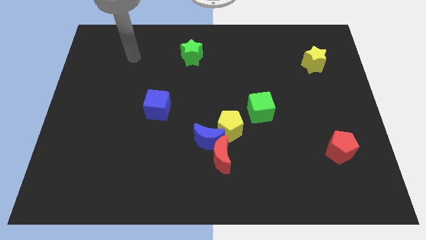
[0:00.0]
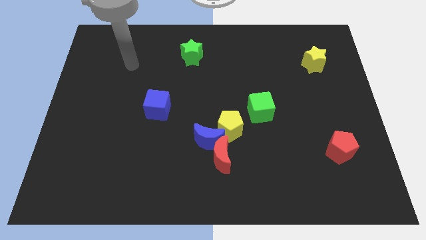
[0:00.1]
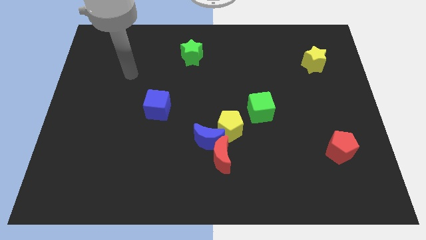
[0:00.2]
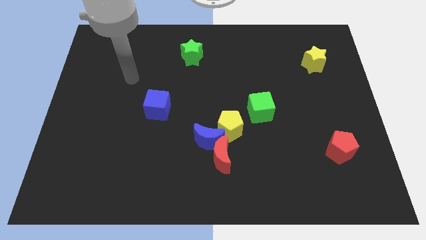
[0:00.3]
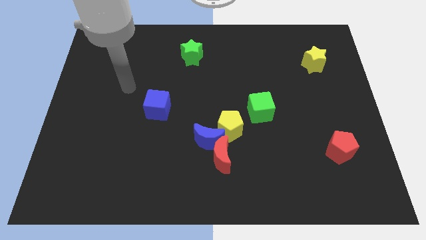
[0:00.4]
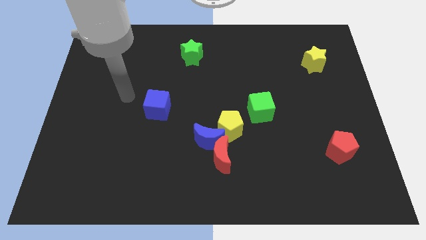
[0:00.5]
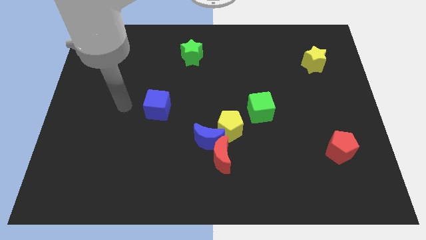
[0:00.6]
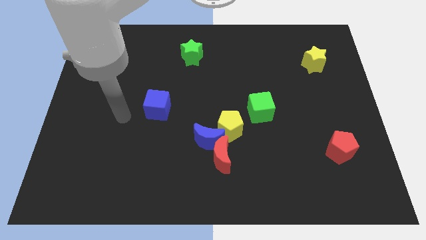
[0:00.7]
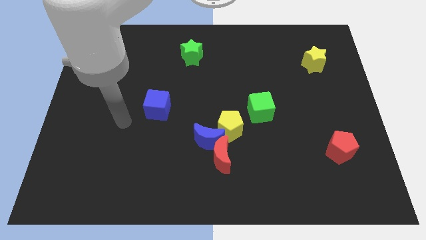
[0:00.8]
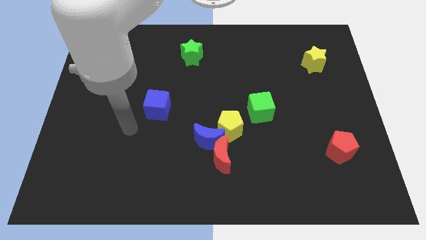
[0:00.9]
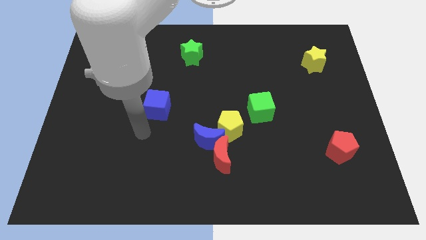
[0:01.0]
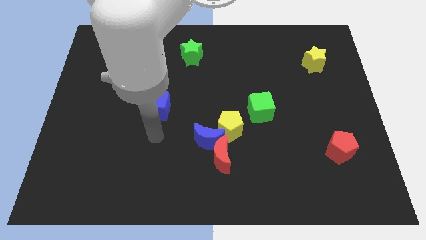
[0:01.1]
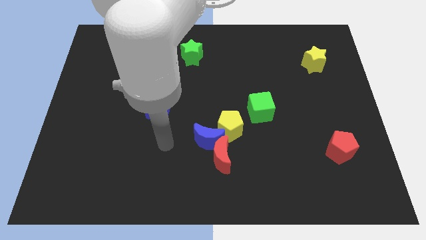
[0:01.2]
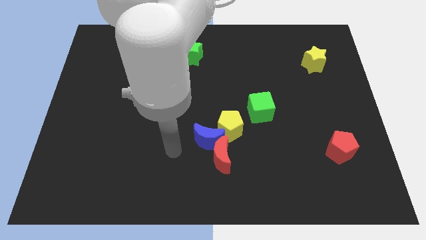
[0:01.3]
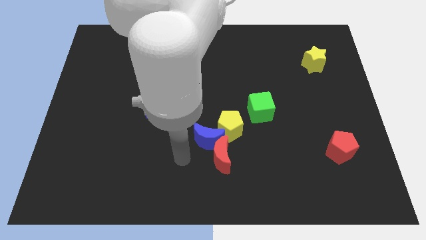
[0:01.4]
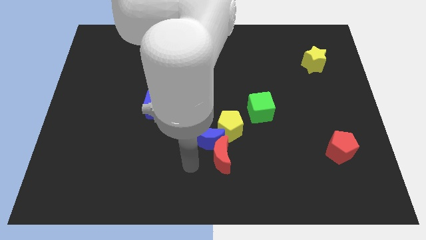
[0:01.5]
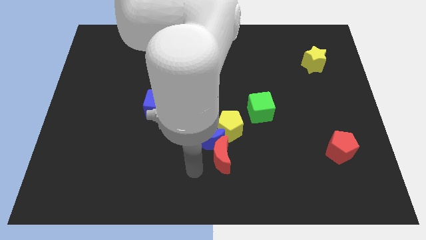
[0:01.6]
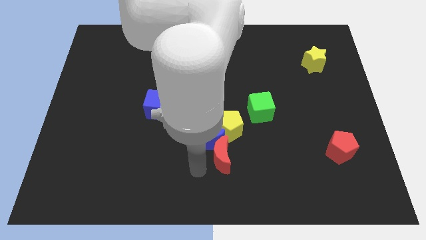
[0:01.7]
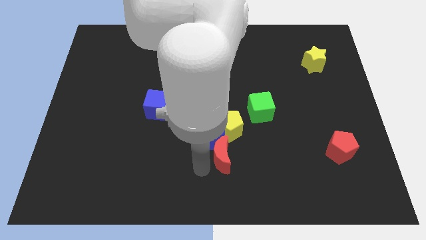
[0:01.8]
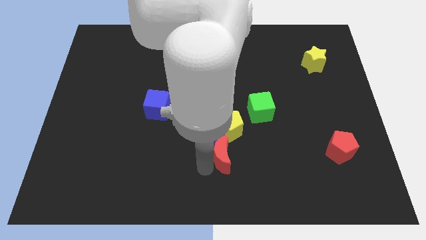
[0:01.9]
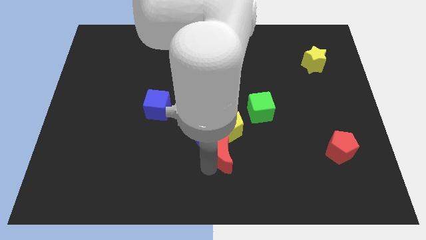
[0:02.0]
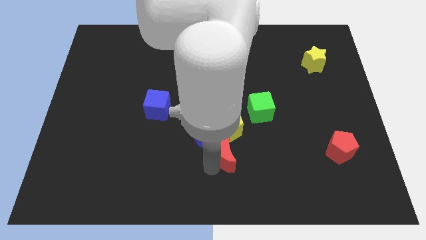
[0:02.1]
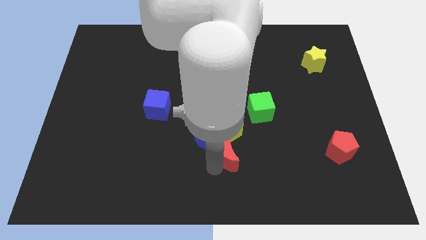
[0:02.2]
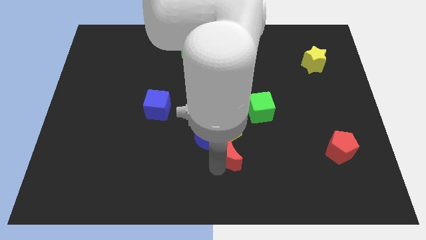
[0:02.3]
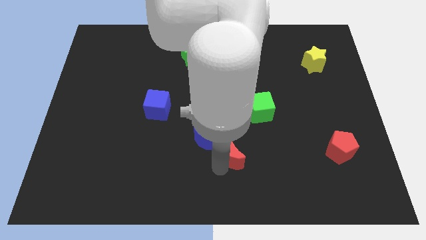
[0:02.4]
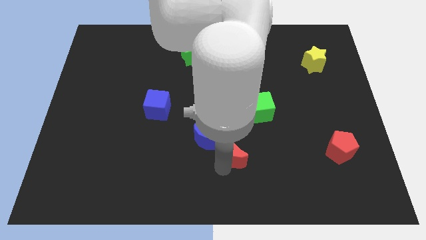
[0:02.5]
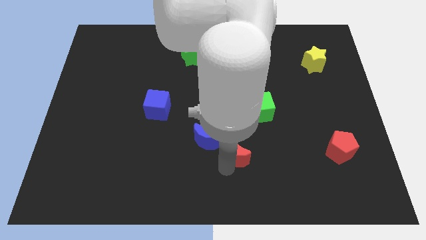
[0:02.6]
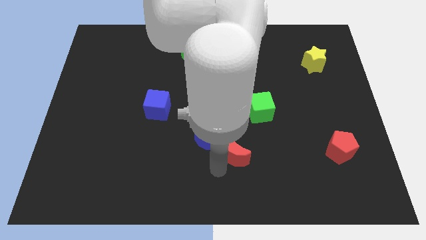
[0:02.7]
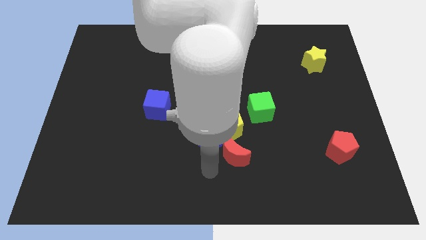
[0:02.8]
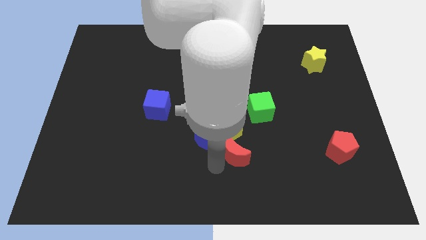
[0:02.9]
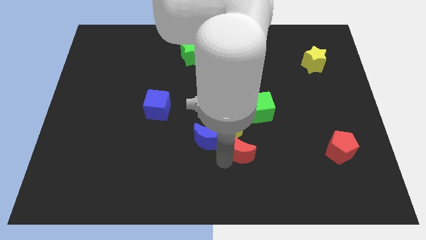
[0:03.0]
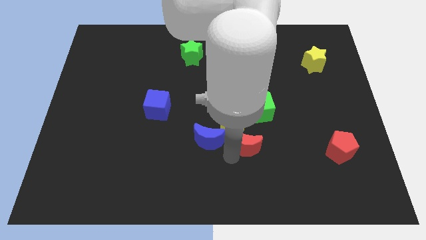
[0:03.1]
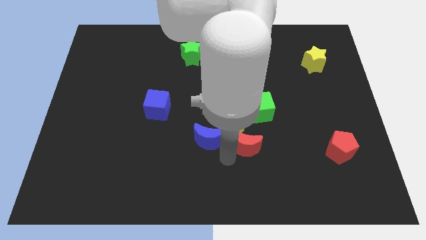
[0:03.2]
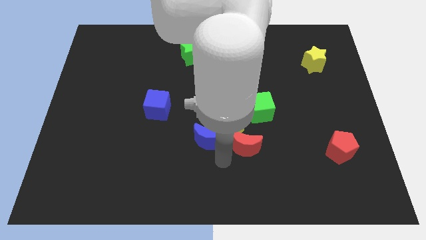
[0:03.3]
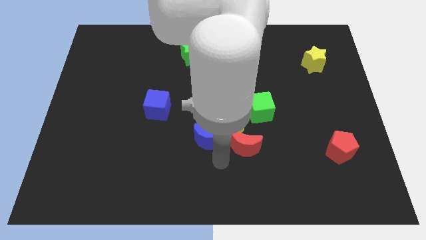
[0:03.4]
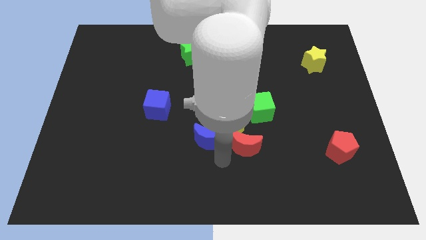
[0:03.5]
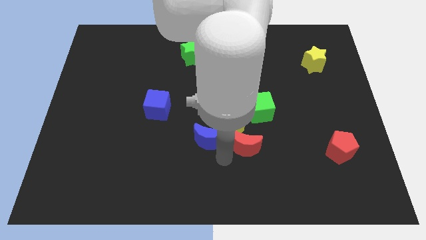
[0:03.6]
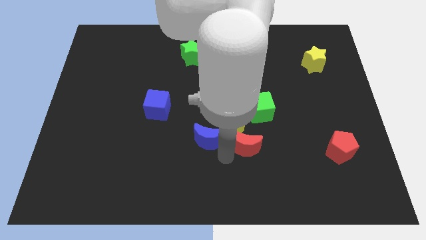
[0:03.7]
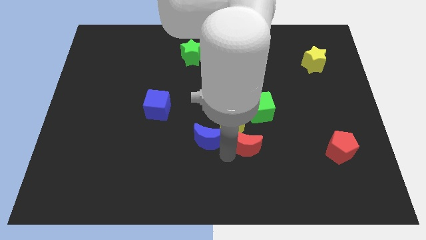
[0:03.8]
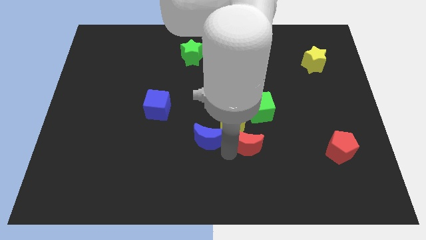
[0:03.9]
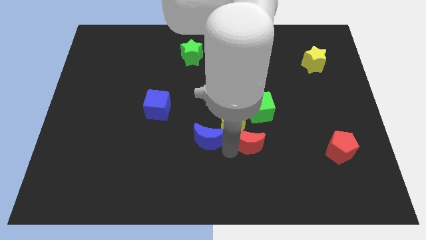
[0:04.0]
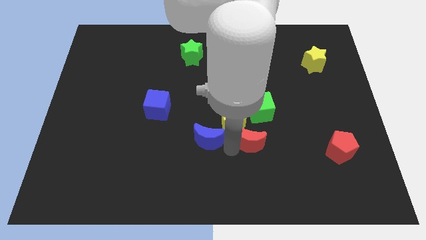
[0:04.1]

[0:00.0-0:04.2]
slightly move the red moon upwards and right diagonally

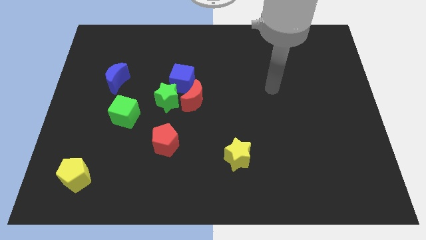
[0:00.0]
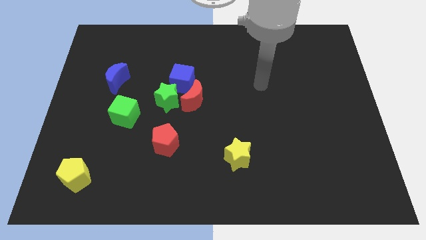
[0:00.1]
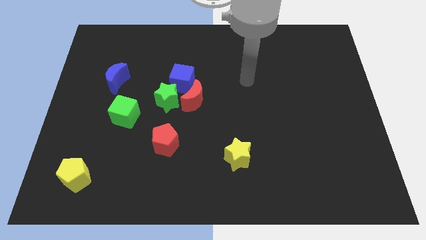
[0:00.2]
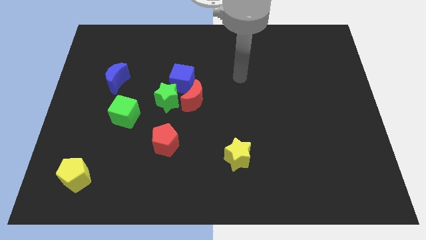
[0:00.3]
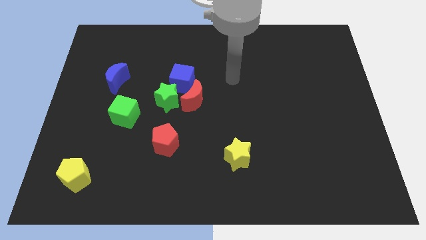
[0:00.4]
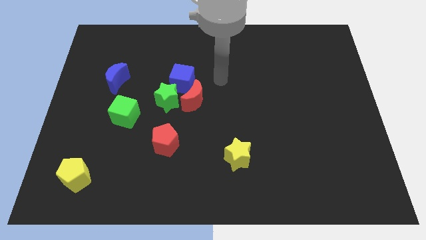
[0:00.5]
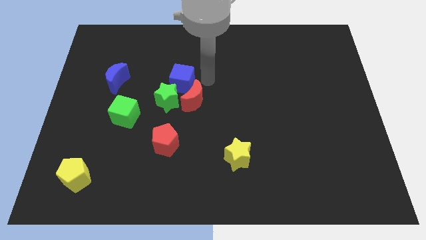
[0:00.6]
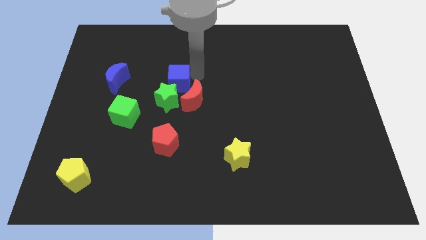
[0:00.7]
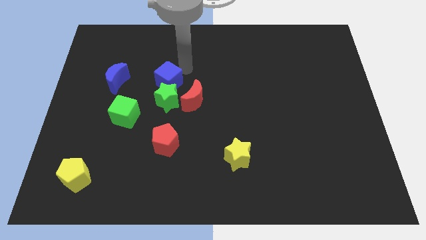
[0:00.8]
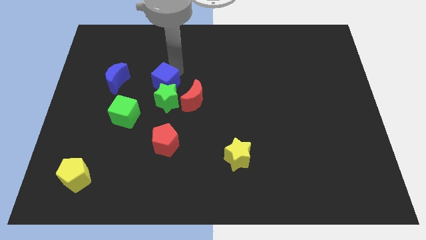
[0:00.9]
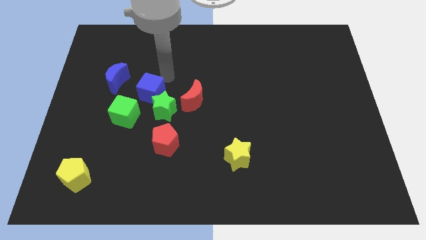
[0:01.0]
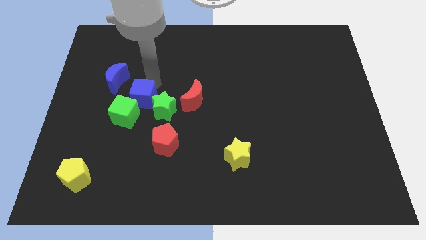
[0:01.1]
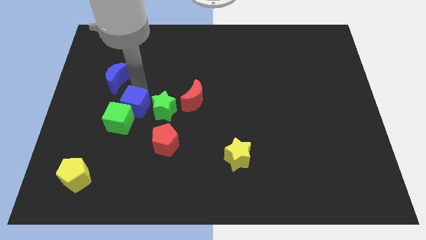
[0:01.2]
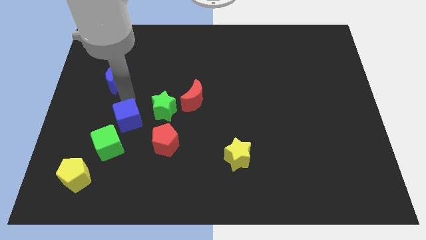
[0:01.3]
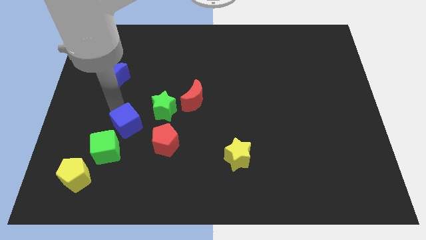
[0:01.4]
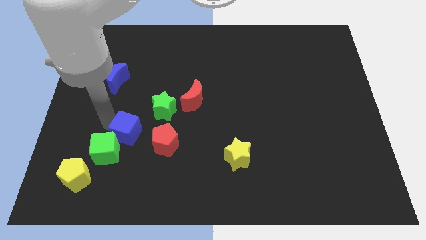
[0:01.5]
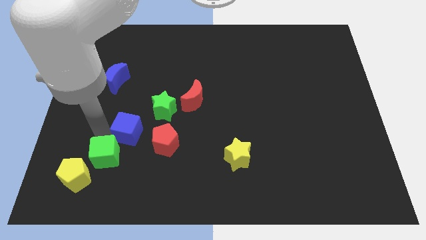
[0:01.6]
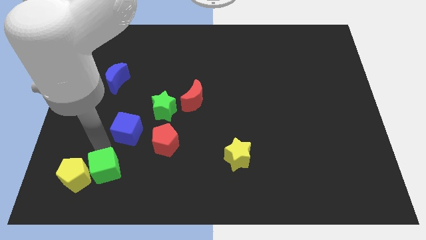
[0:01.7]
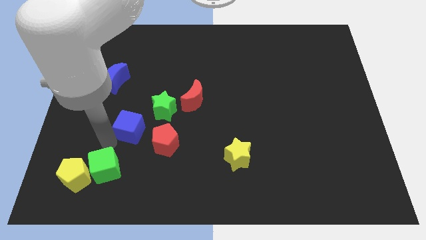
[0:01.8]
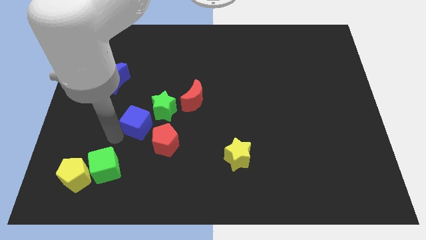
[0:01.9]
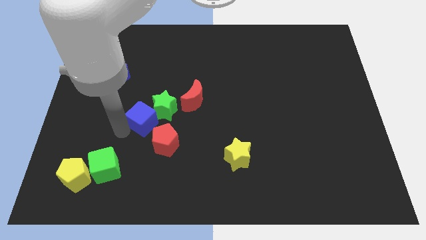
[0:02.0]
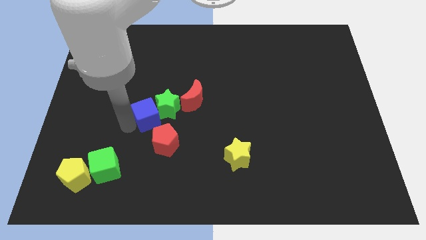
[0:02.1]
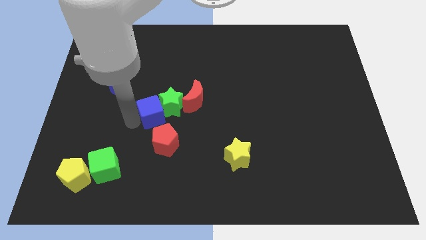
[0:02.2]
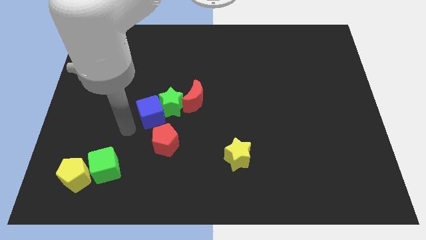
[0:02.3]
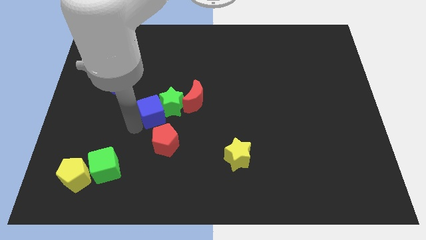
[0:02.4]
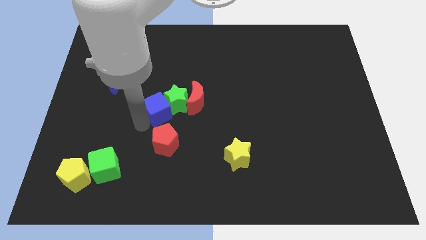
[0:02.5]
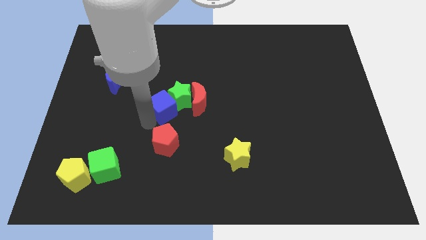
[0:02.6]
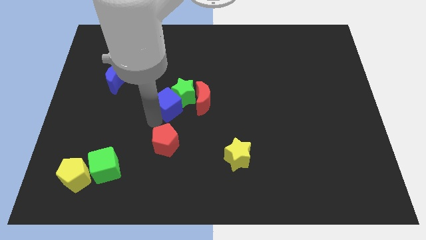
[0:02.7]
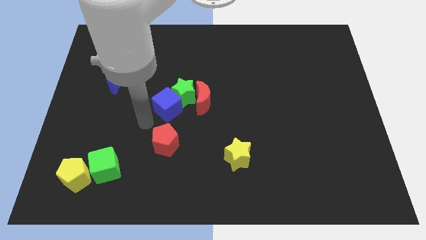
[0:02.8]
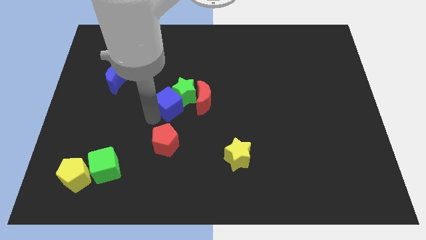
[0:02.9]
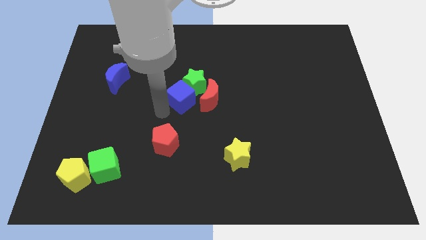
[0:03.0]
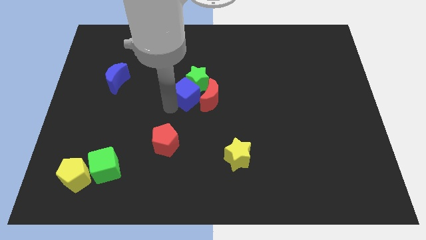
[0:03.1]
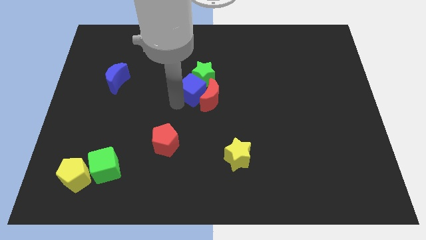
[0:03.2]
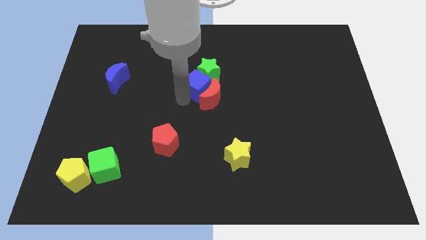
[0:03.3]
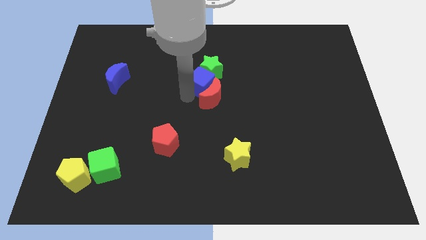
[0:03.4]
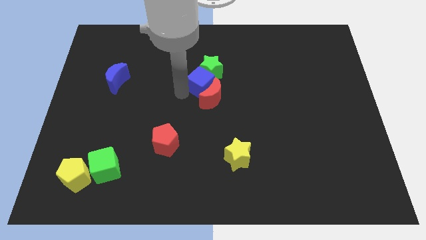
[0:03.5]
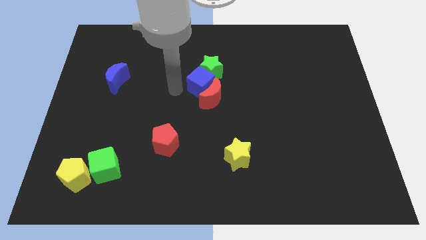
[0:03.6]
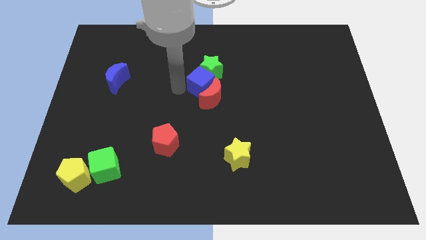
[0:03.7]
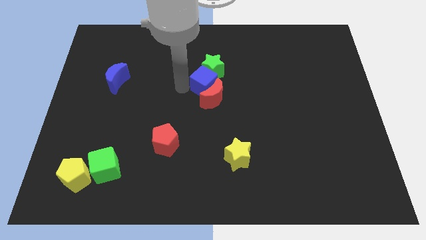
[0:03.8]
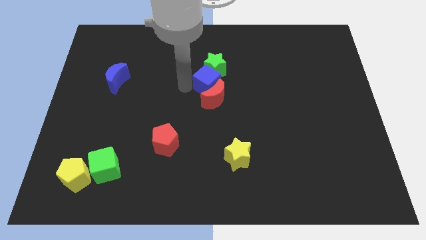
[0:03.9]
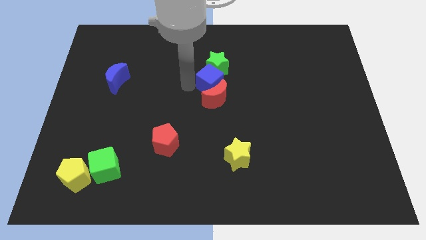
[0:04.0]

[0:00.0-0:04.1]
push the blue cube right slightly
